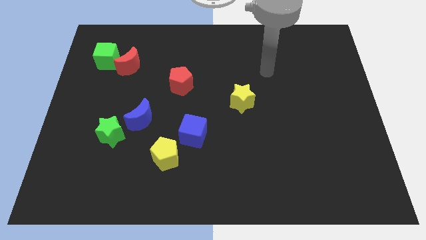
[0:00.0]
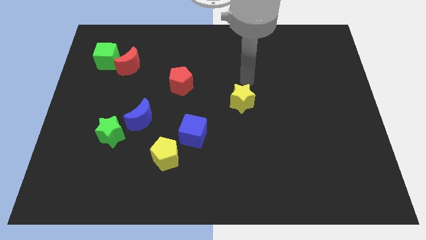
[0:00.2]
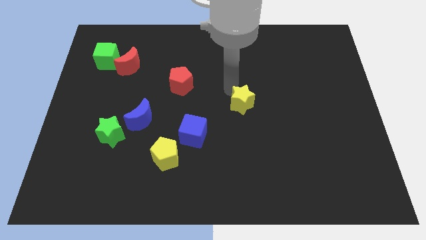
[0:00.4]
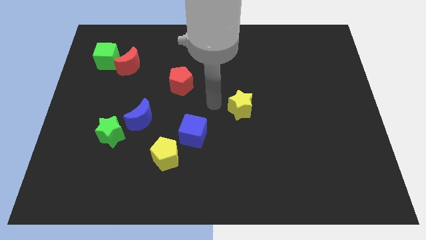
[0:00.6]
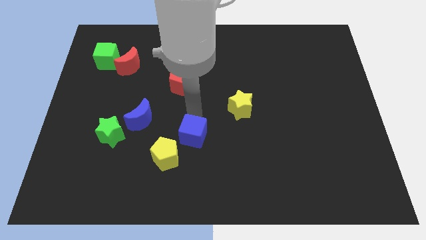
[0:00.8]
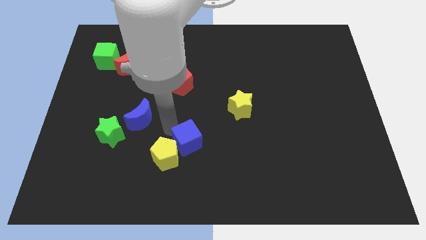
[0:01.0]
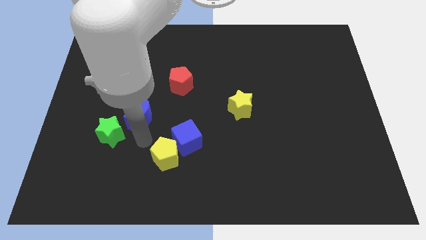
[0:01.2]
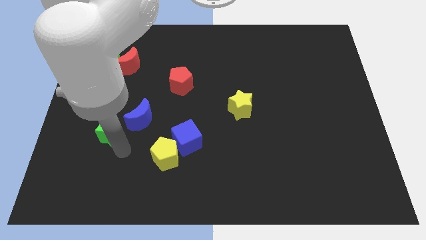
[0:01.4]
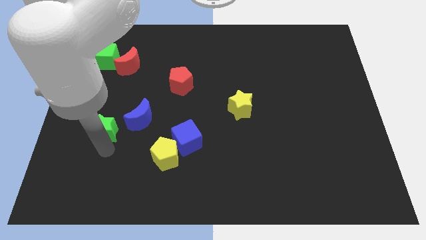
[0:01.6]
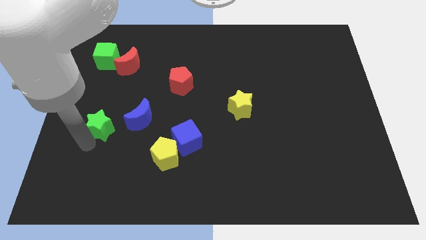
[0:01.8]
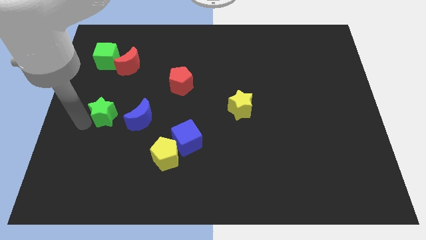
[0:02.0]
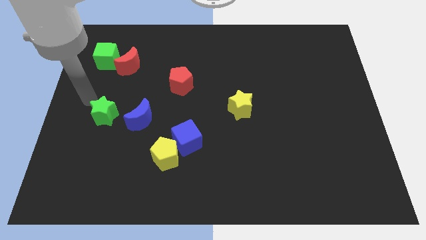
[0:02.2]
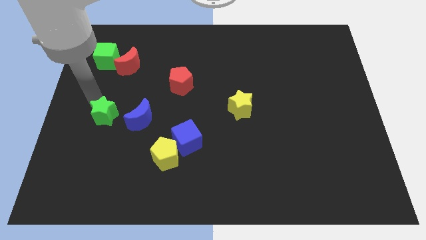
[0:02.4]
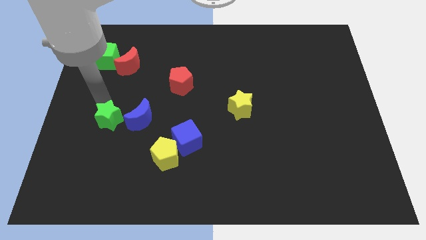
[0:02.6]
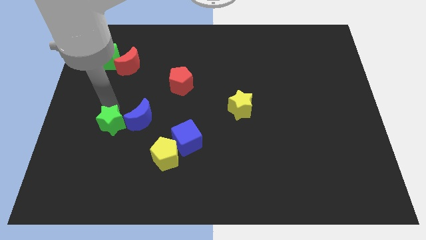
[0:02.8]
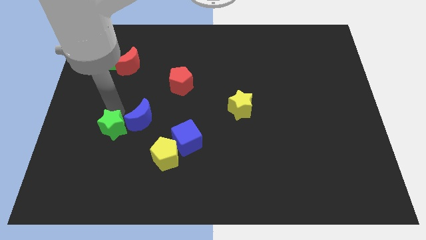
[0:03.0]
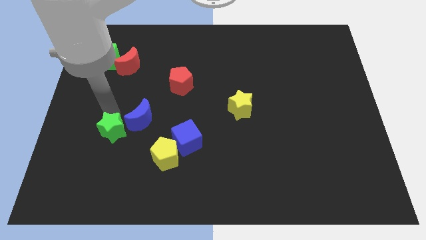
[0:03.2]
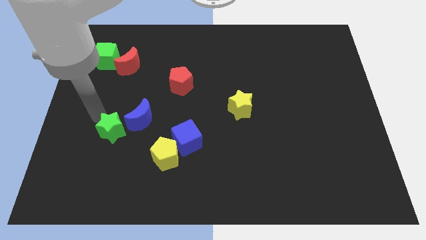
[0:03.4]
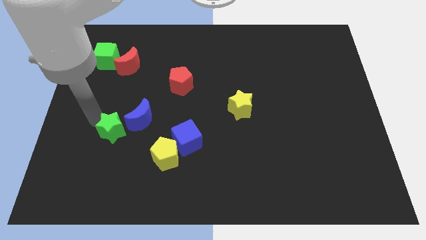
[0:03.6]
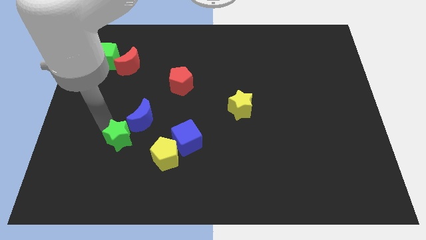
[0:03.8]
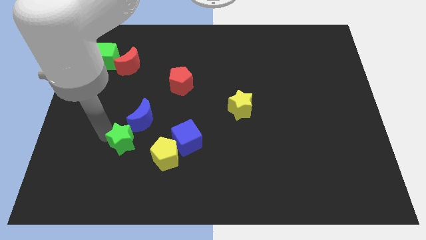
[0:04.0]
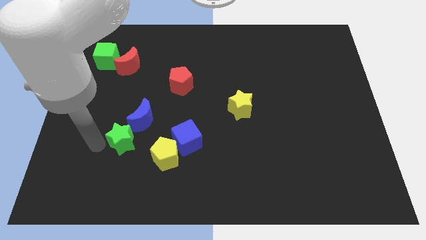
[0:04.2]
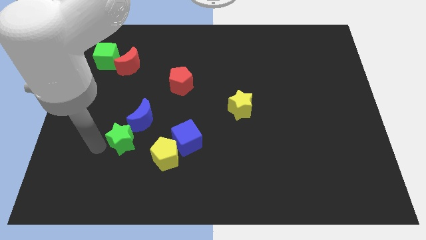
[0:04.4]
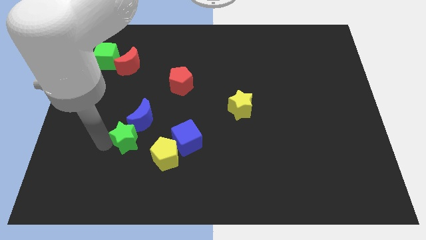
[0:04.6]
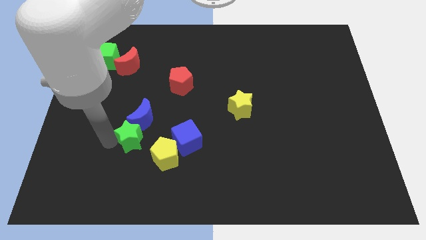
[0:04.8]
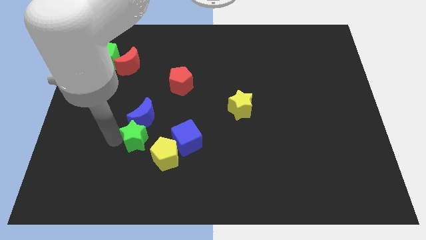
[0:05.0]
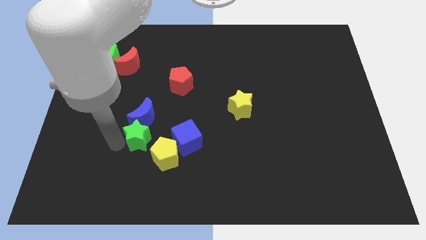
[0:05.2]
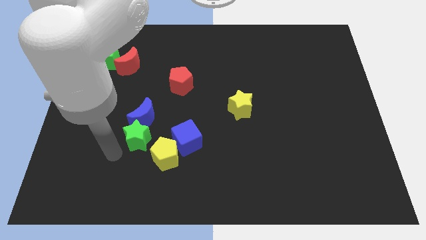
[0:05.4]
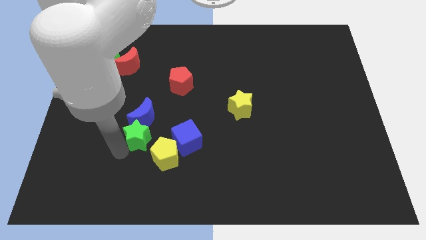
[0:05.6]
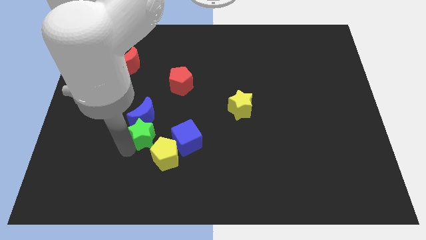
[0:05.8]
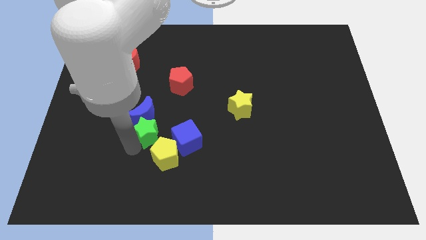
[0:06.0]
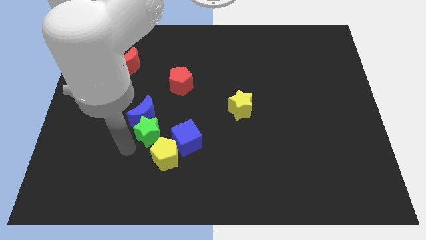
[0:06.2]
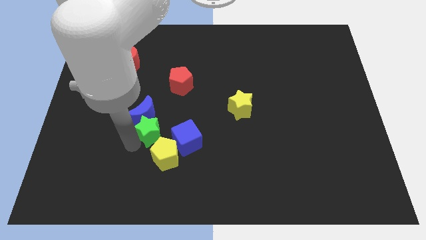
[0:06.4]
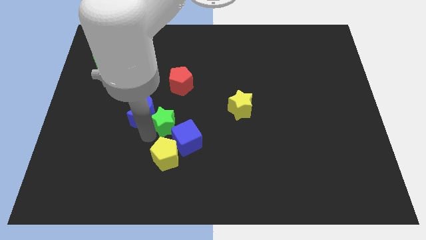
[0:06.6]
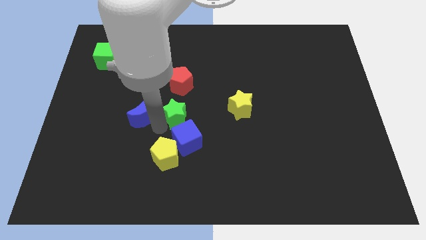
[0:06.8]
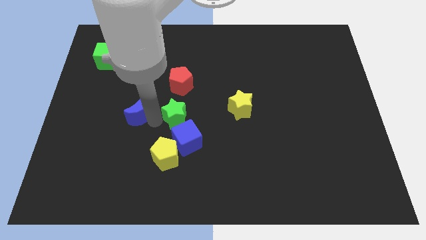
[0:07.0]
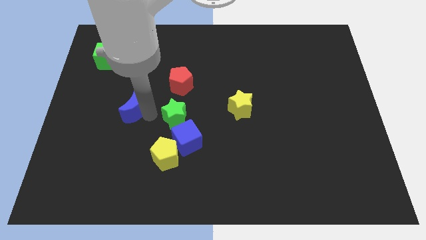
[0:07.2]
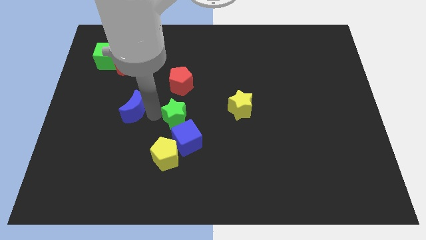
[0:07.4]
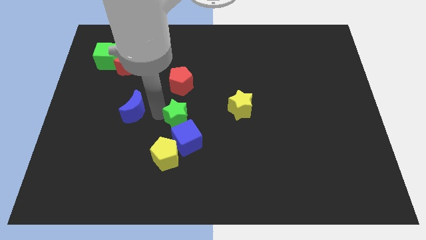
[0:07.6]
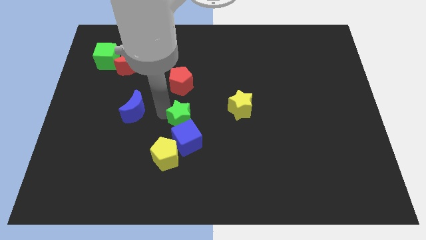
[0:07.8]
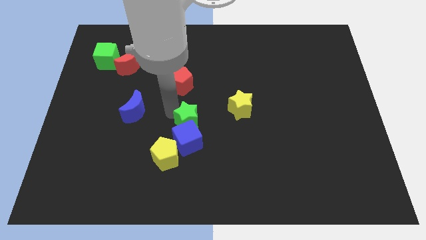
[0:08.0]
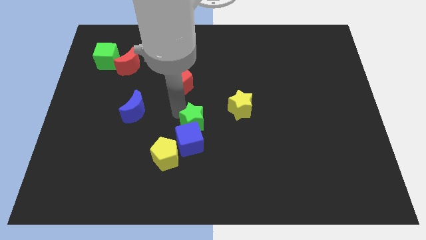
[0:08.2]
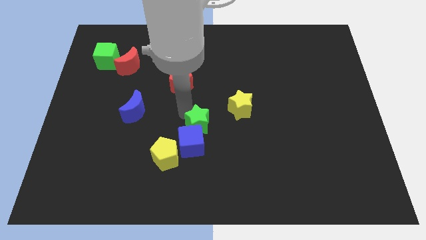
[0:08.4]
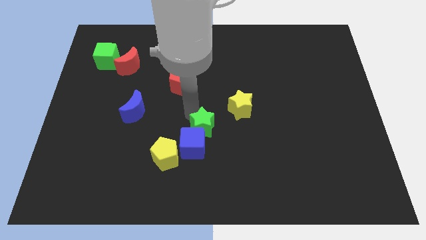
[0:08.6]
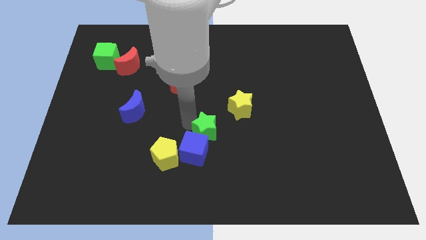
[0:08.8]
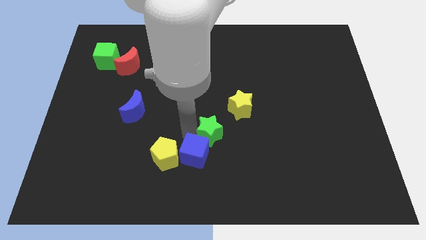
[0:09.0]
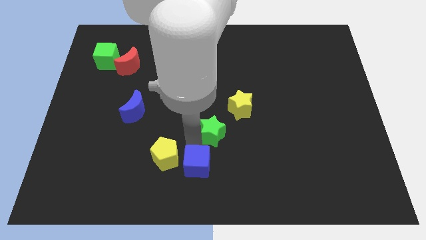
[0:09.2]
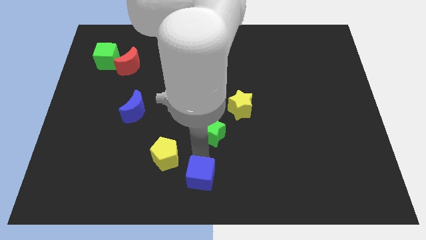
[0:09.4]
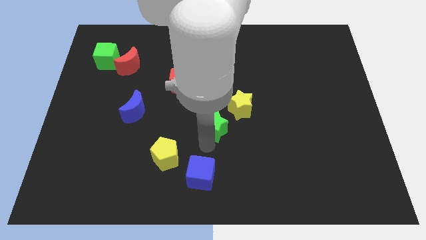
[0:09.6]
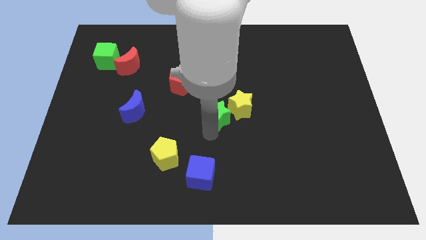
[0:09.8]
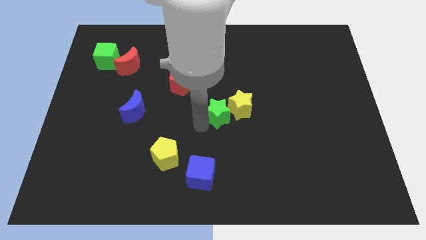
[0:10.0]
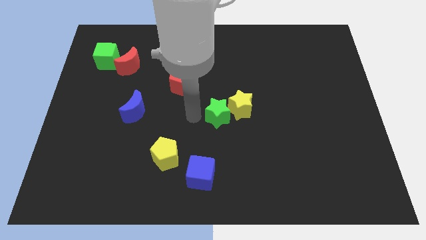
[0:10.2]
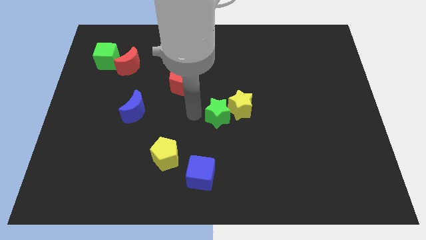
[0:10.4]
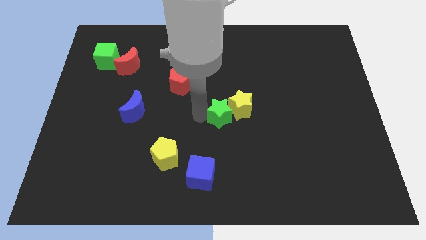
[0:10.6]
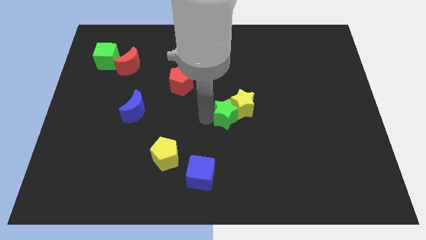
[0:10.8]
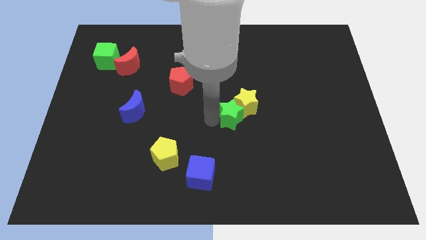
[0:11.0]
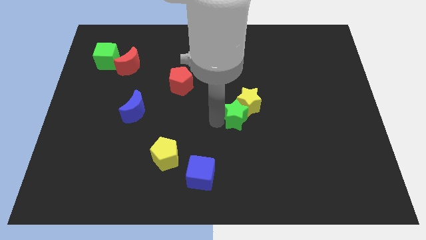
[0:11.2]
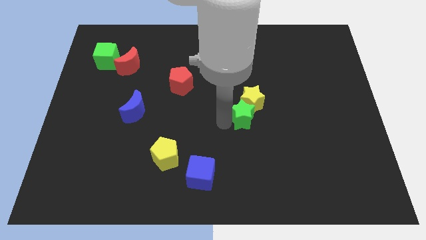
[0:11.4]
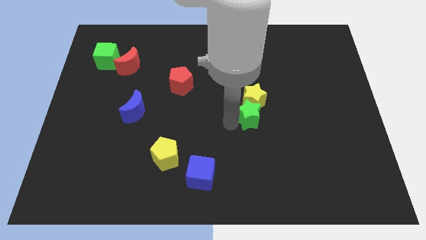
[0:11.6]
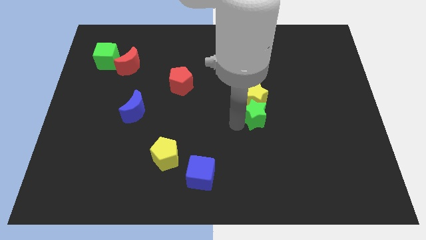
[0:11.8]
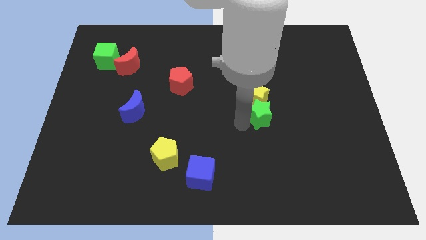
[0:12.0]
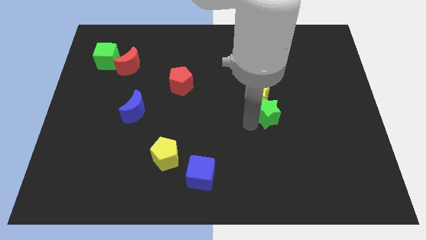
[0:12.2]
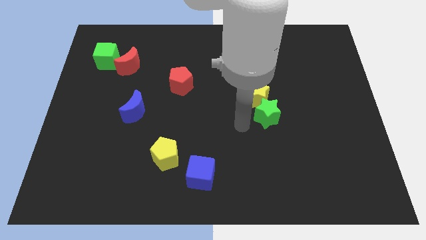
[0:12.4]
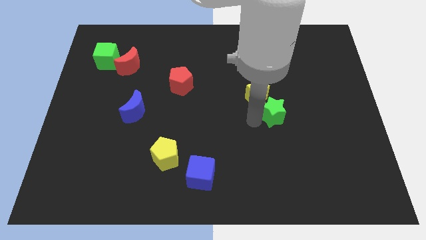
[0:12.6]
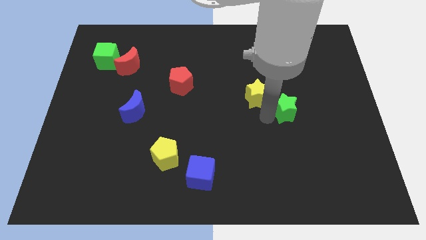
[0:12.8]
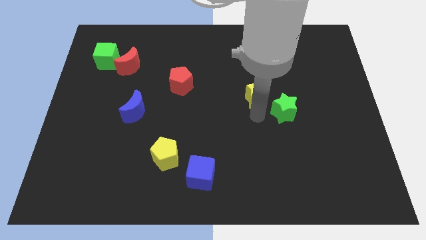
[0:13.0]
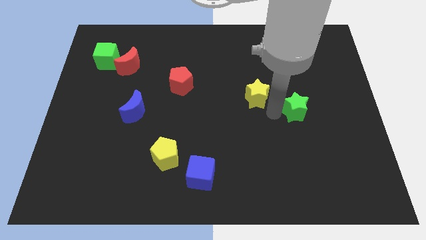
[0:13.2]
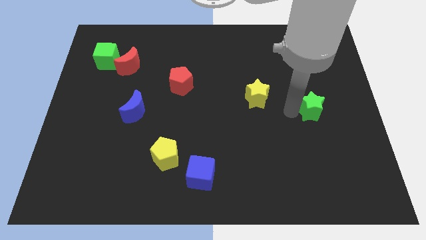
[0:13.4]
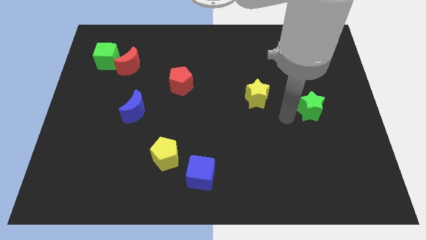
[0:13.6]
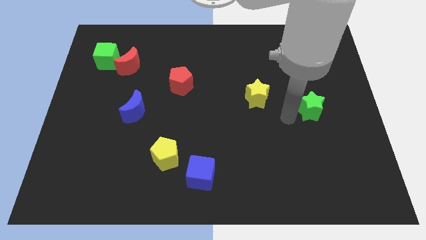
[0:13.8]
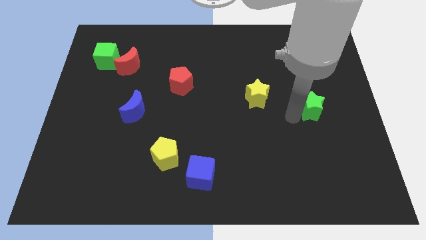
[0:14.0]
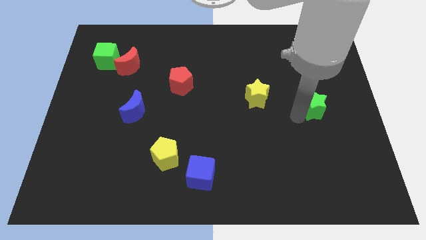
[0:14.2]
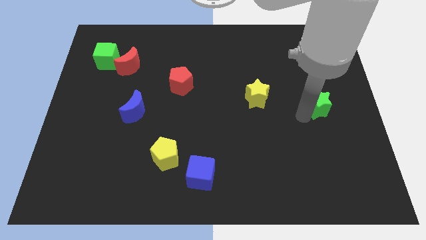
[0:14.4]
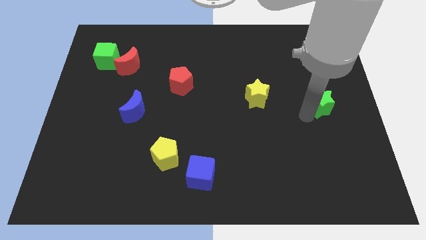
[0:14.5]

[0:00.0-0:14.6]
put the green star to the center right

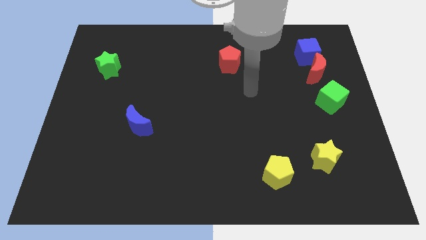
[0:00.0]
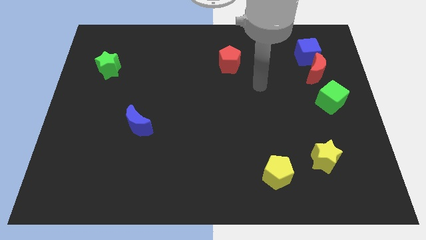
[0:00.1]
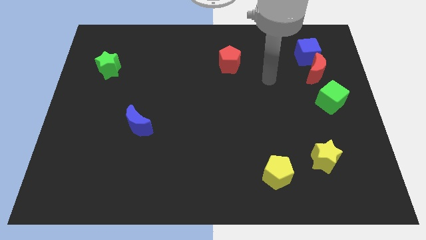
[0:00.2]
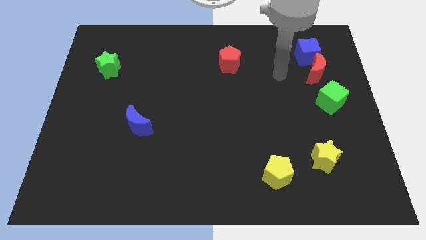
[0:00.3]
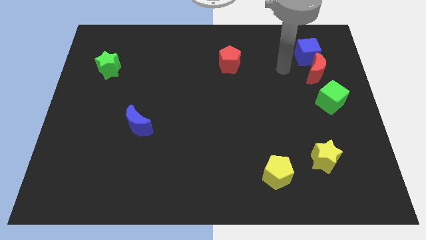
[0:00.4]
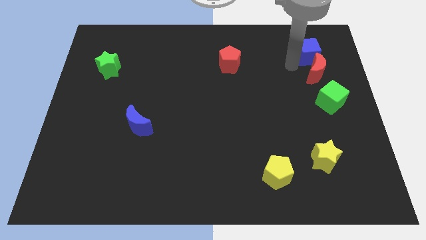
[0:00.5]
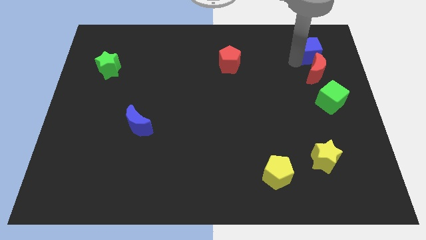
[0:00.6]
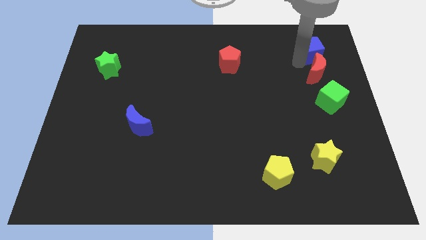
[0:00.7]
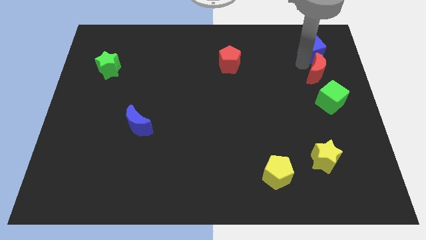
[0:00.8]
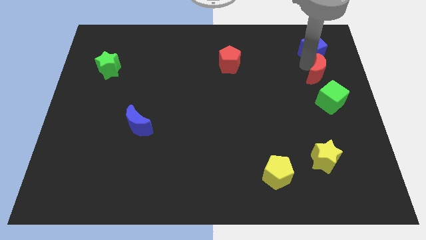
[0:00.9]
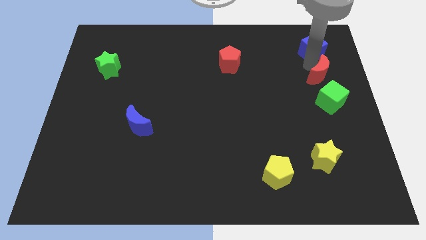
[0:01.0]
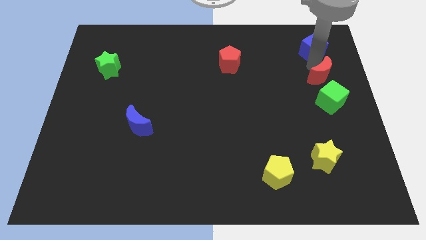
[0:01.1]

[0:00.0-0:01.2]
move the red moon to the right side
